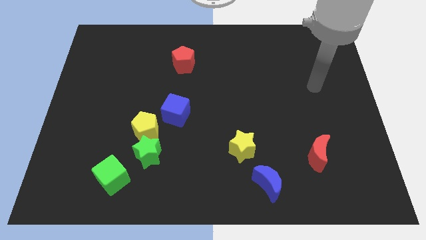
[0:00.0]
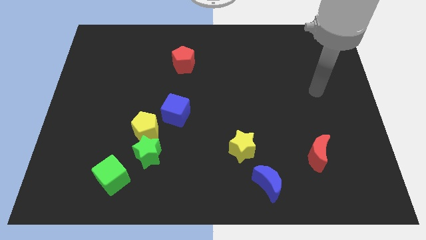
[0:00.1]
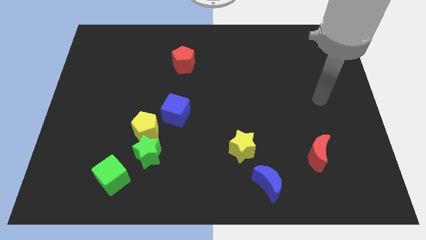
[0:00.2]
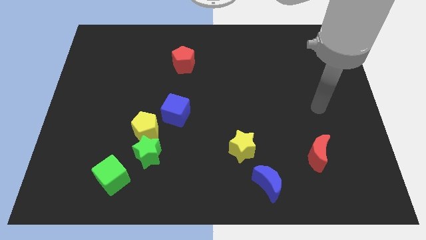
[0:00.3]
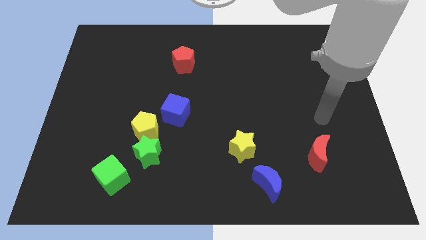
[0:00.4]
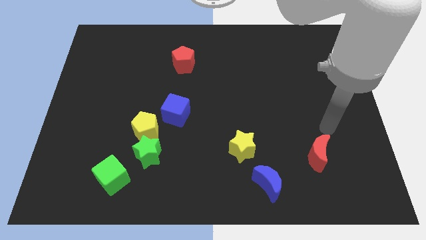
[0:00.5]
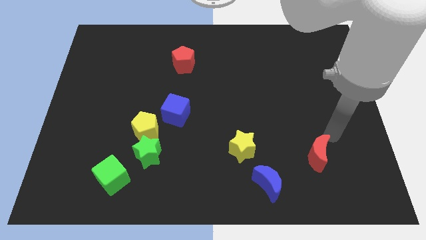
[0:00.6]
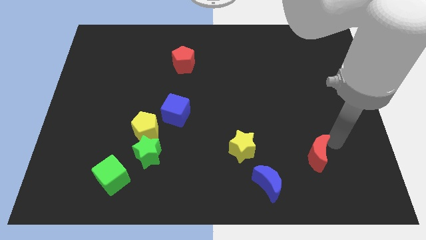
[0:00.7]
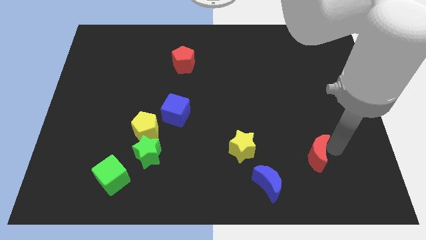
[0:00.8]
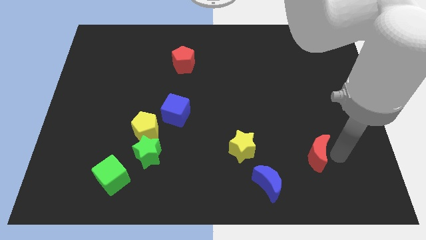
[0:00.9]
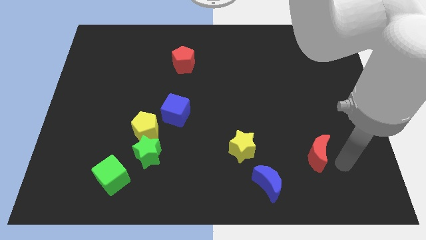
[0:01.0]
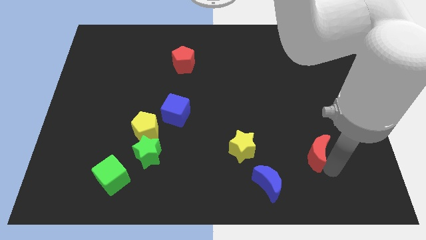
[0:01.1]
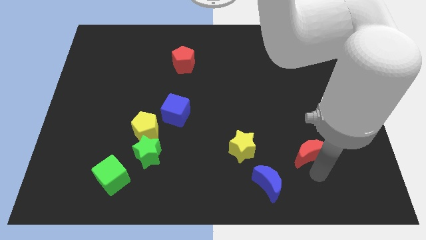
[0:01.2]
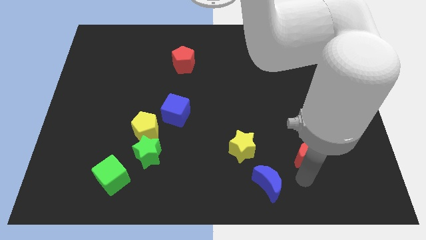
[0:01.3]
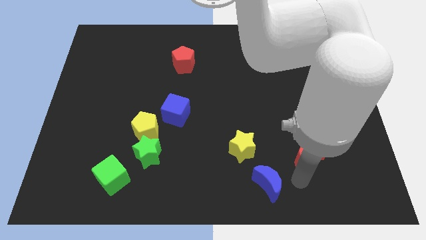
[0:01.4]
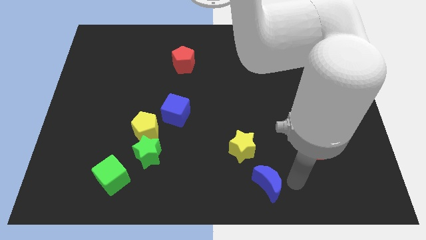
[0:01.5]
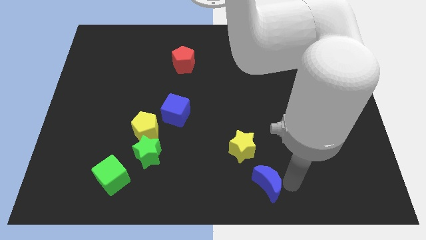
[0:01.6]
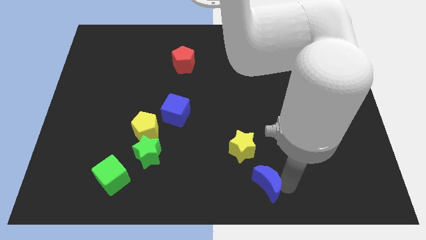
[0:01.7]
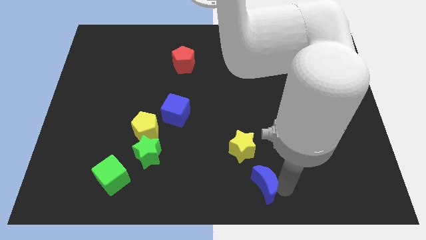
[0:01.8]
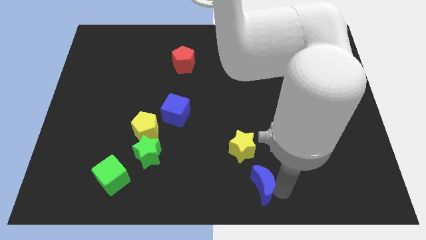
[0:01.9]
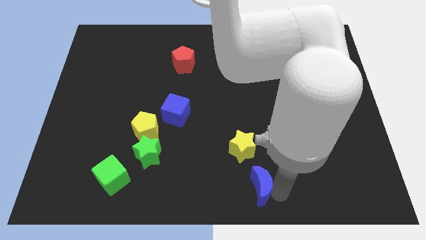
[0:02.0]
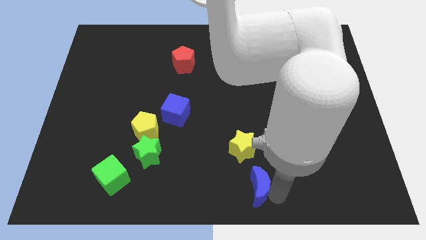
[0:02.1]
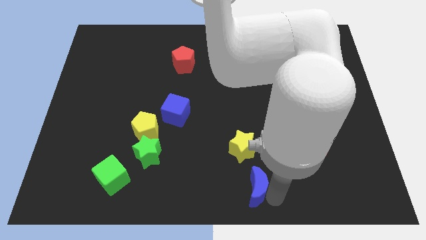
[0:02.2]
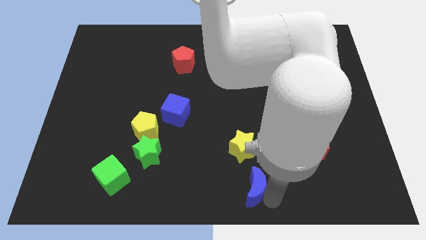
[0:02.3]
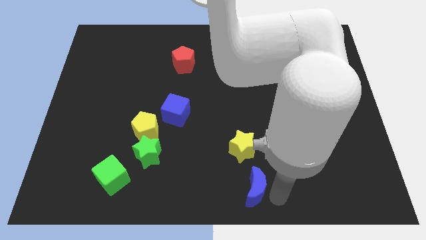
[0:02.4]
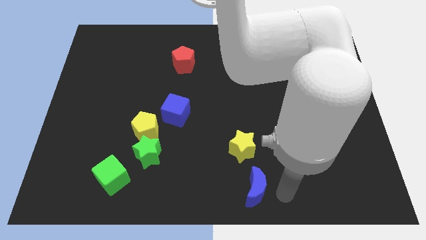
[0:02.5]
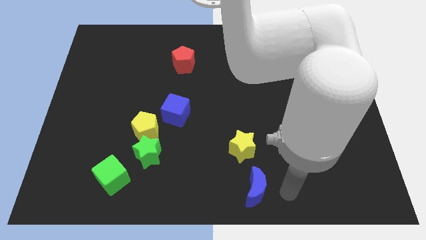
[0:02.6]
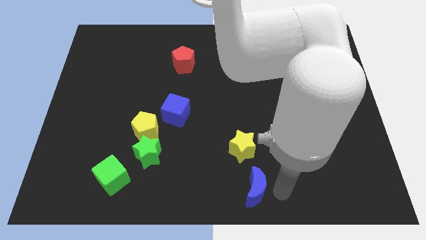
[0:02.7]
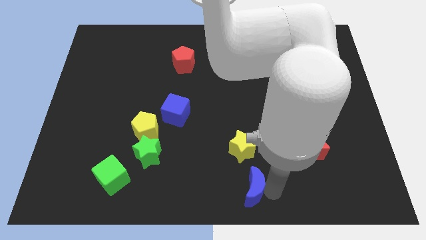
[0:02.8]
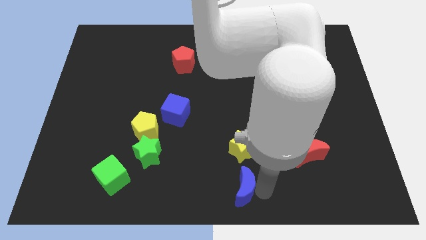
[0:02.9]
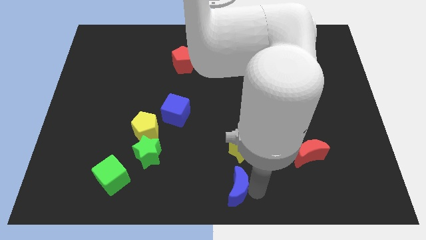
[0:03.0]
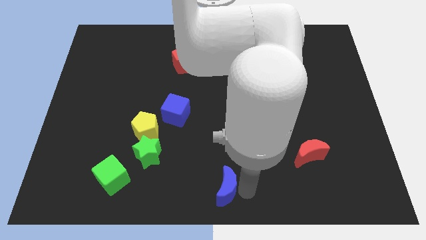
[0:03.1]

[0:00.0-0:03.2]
slightly slide the blue moon left

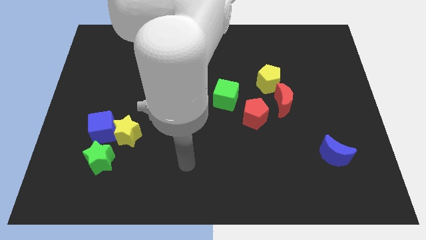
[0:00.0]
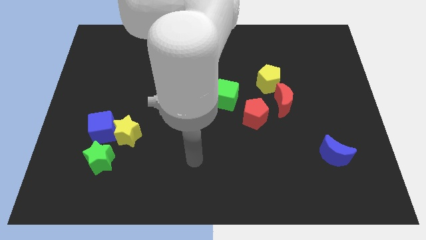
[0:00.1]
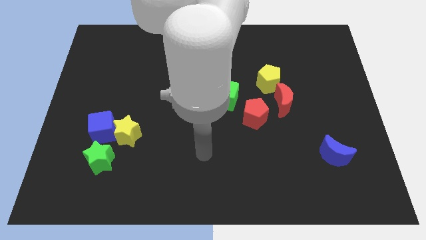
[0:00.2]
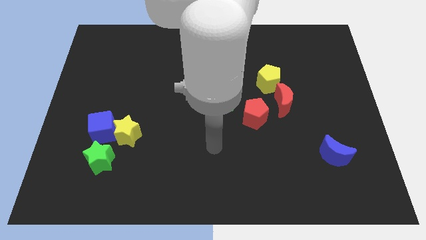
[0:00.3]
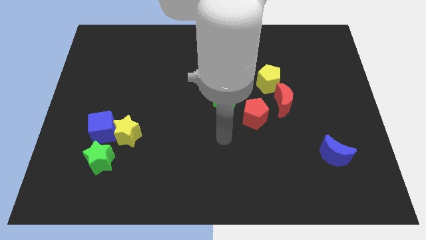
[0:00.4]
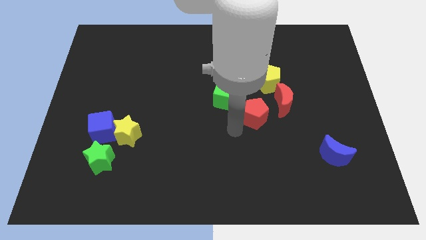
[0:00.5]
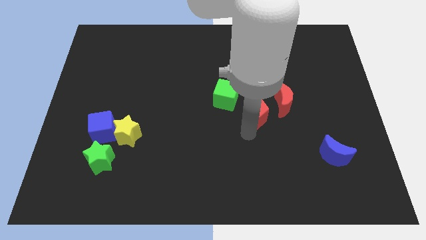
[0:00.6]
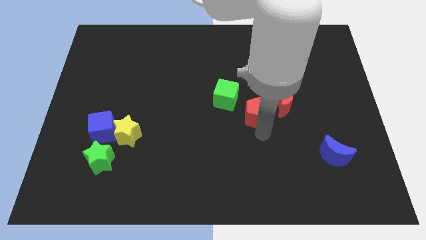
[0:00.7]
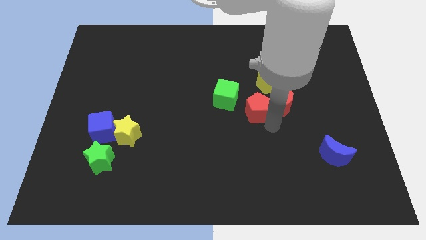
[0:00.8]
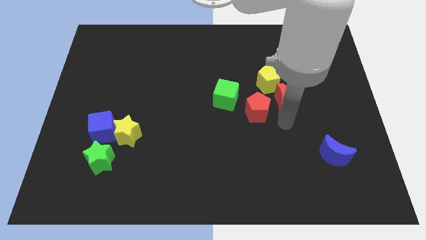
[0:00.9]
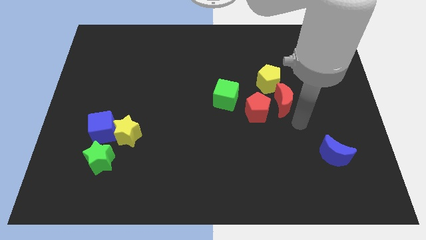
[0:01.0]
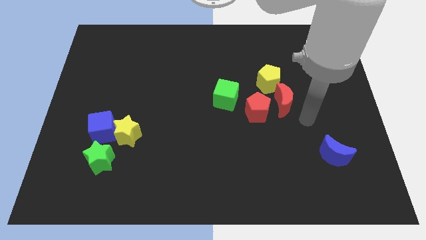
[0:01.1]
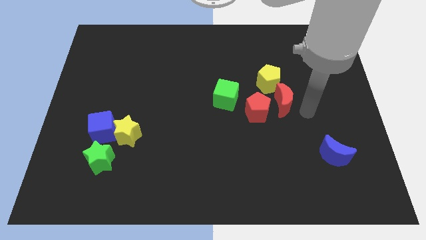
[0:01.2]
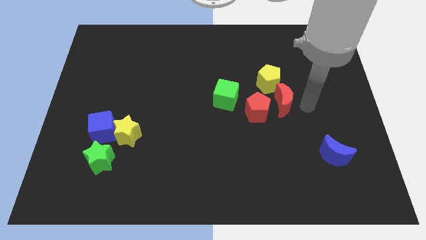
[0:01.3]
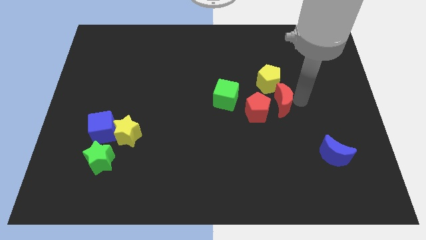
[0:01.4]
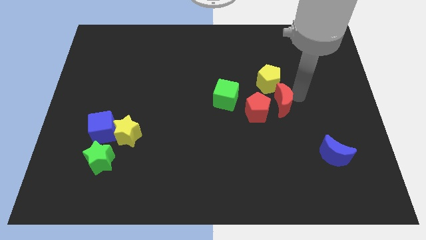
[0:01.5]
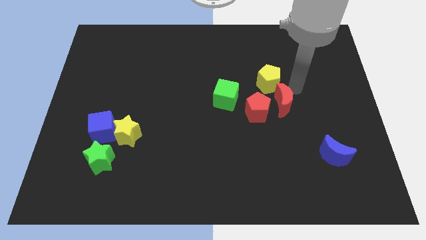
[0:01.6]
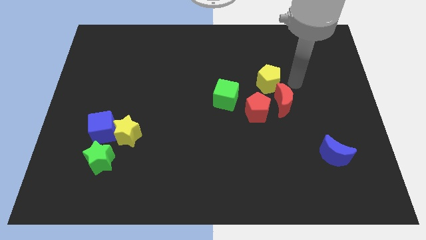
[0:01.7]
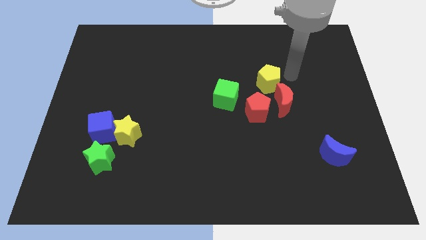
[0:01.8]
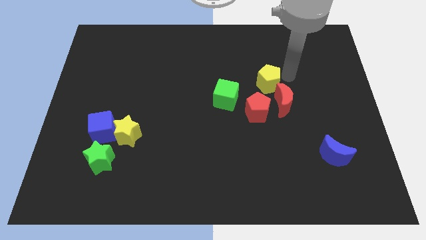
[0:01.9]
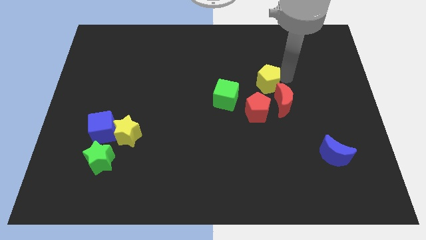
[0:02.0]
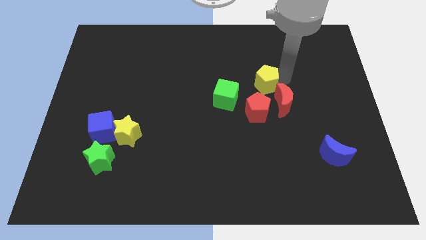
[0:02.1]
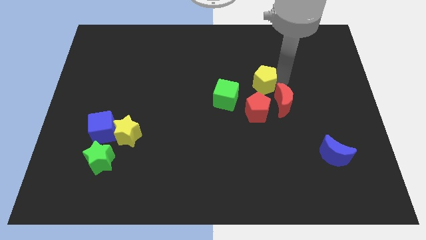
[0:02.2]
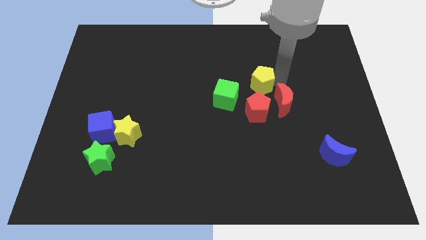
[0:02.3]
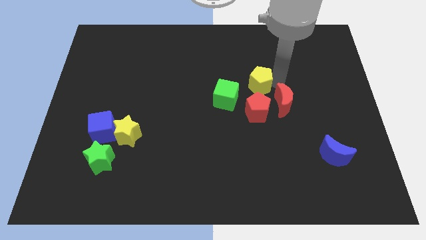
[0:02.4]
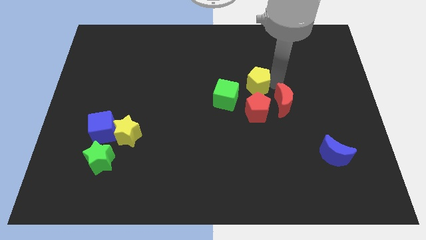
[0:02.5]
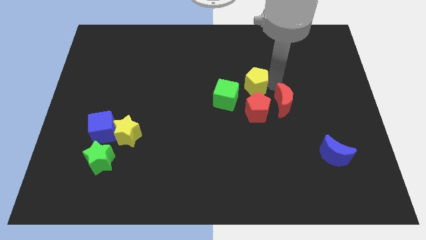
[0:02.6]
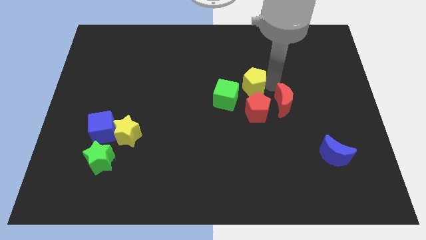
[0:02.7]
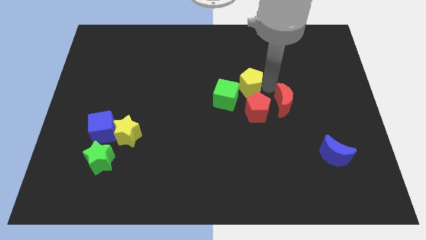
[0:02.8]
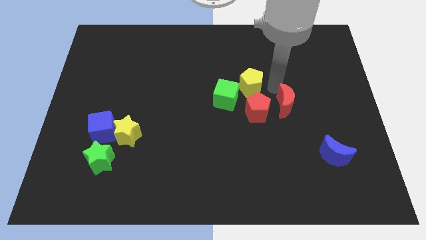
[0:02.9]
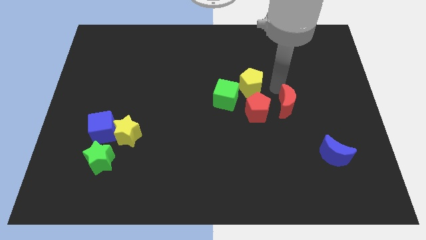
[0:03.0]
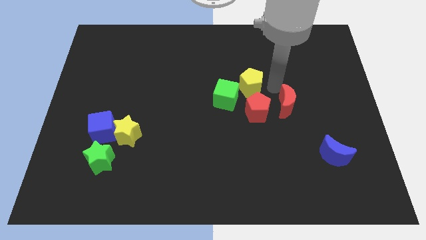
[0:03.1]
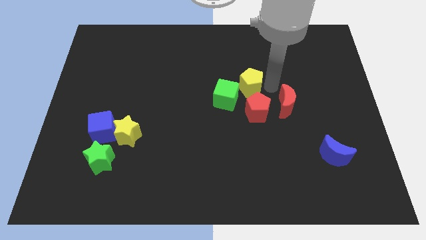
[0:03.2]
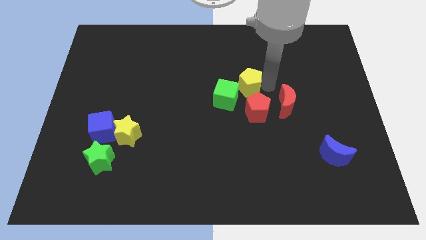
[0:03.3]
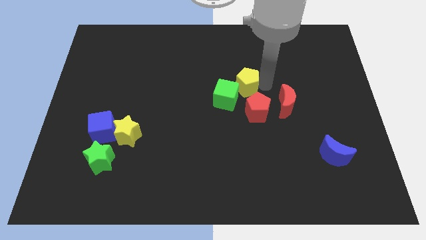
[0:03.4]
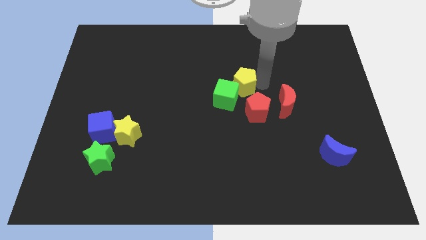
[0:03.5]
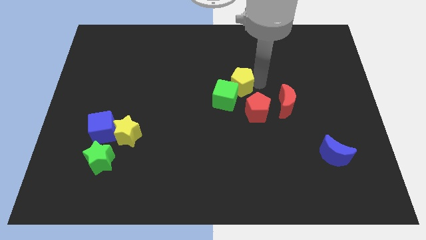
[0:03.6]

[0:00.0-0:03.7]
push the yellow pentagon a little to the left

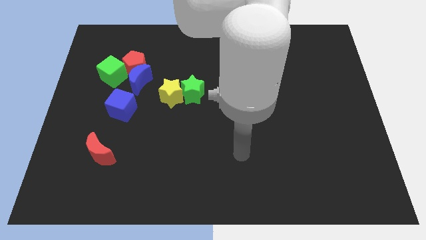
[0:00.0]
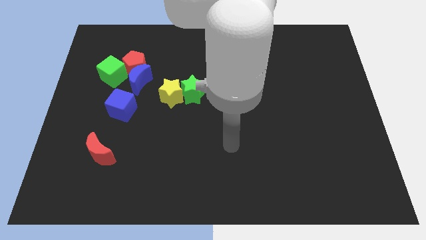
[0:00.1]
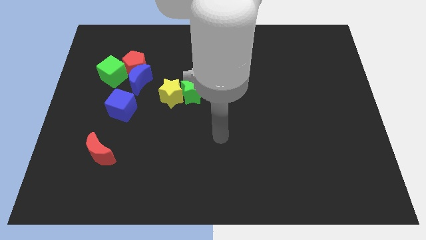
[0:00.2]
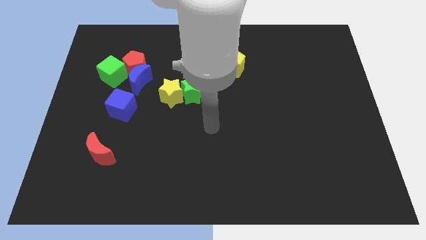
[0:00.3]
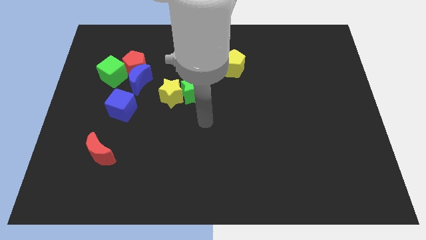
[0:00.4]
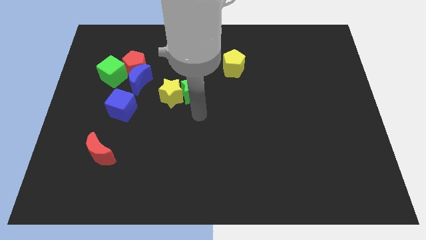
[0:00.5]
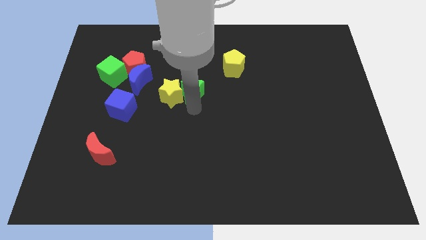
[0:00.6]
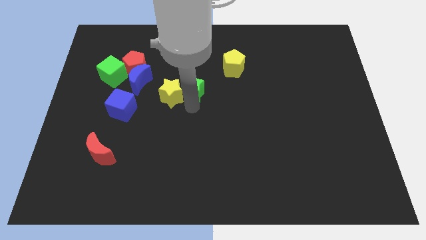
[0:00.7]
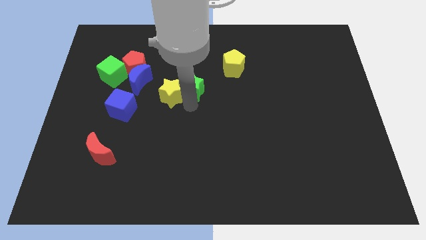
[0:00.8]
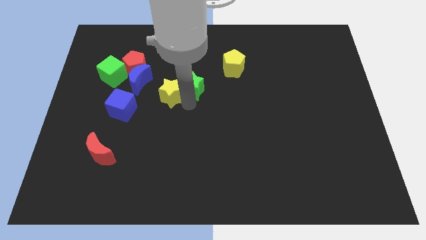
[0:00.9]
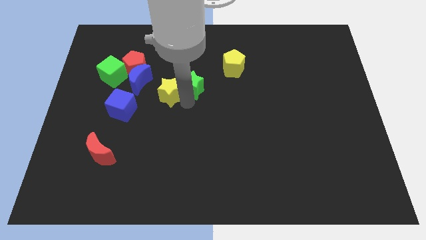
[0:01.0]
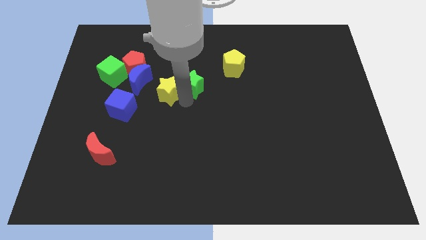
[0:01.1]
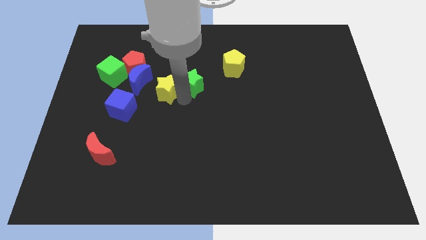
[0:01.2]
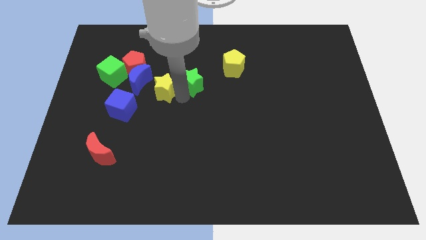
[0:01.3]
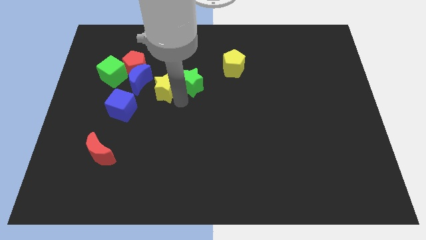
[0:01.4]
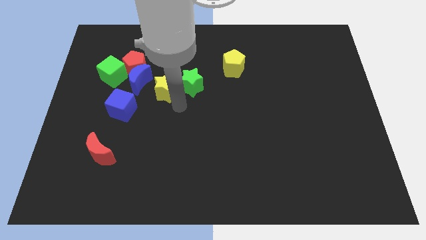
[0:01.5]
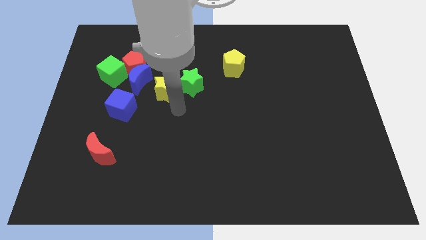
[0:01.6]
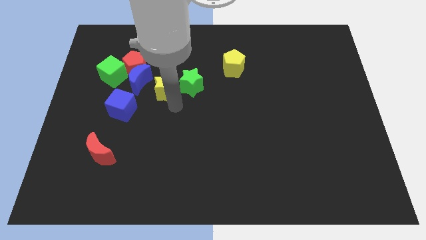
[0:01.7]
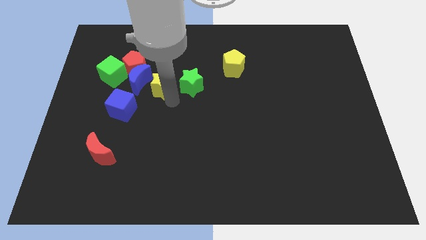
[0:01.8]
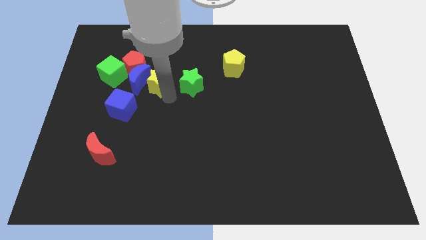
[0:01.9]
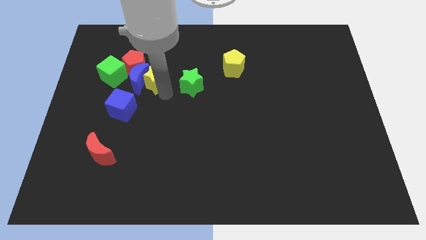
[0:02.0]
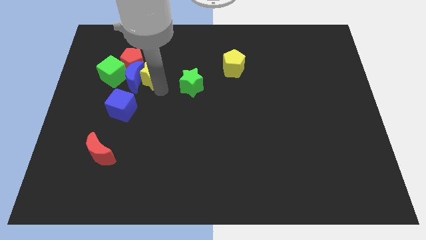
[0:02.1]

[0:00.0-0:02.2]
slide the yellow star up and to the left somewhat

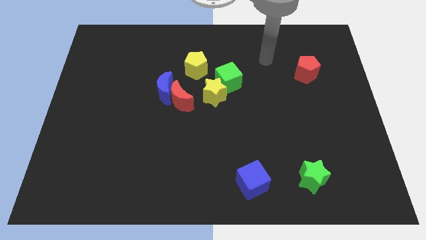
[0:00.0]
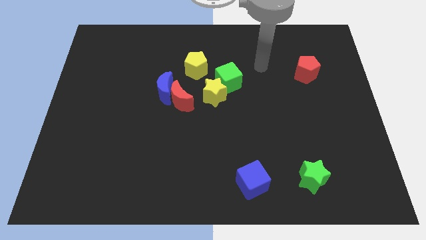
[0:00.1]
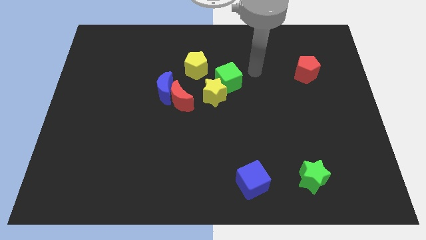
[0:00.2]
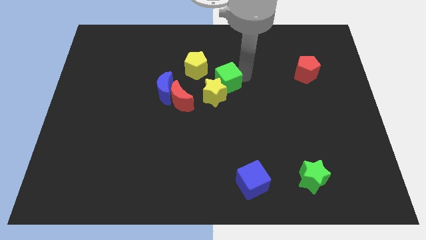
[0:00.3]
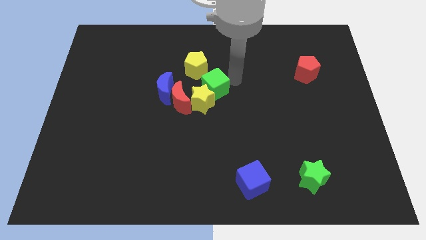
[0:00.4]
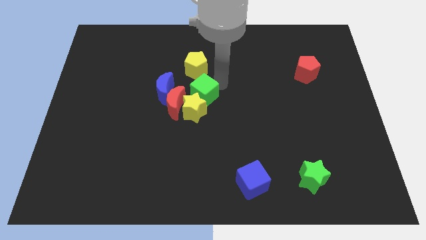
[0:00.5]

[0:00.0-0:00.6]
move the yellow star a little bit downwards and left
